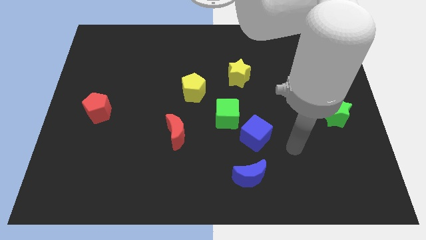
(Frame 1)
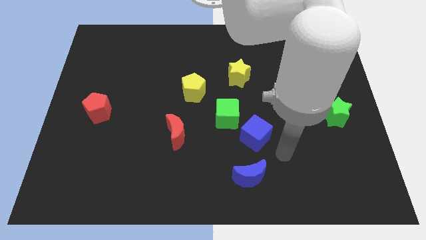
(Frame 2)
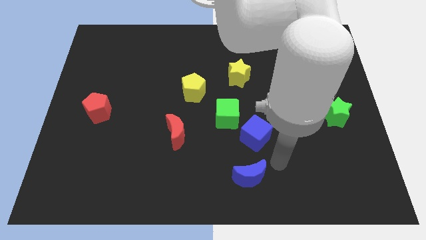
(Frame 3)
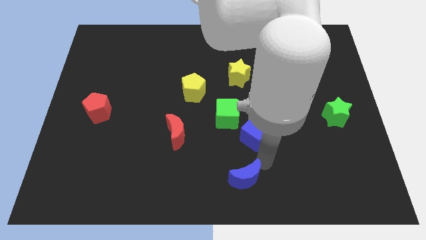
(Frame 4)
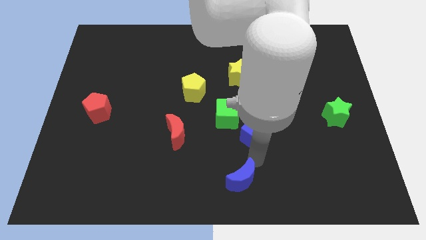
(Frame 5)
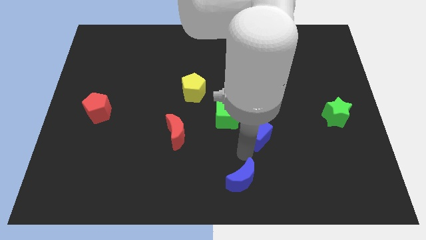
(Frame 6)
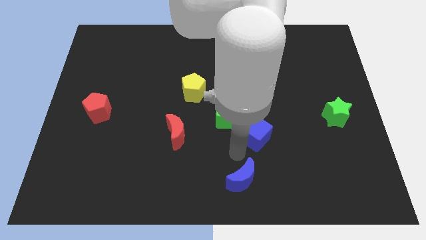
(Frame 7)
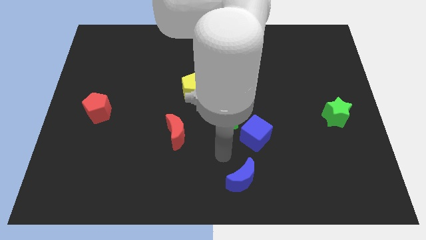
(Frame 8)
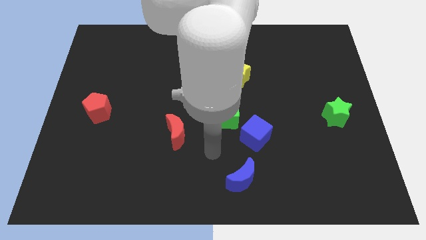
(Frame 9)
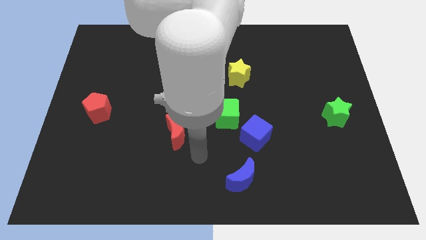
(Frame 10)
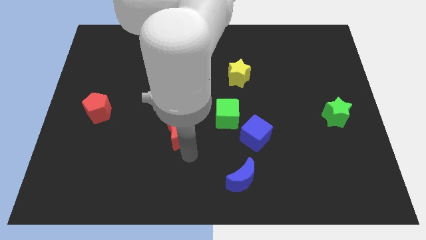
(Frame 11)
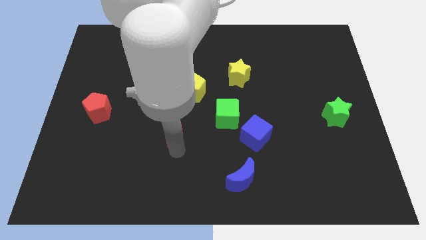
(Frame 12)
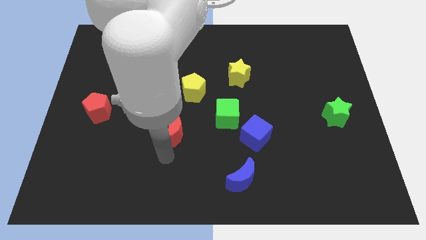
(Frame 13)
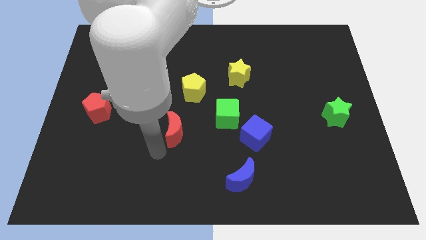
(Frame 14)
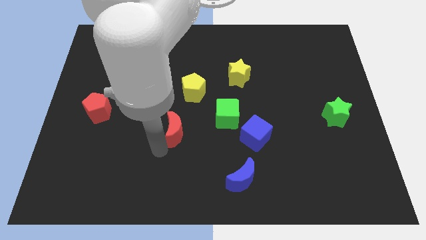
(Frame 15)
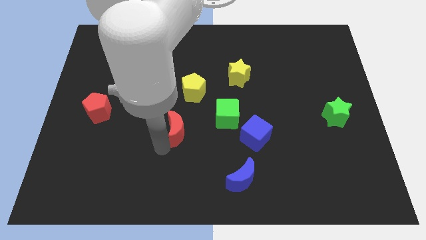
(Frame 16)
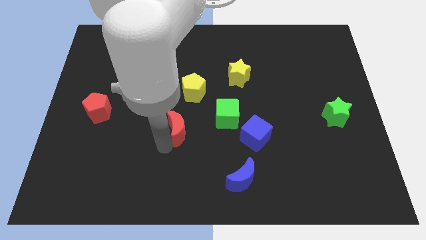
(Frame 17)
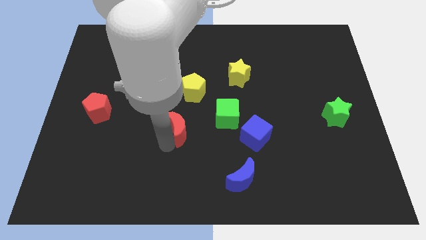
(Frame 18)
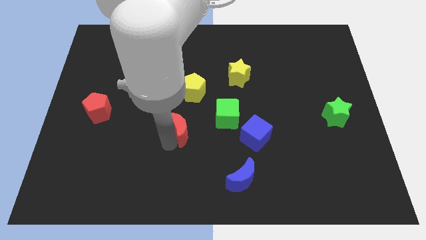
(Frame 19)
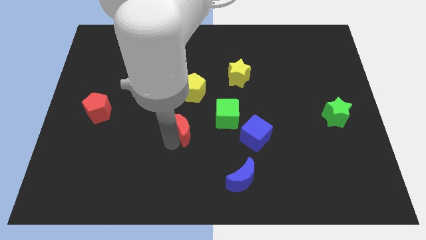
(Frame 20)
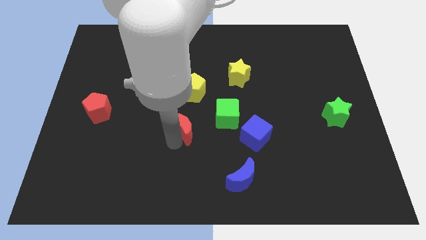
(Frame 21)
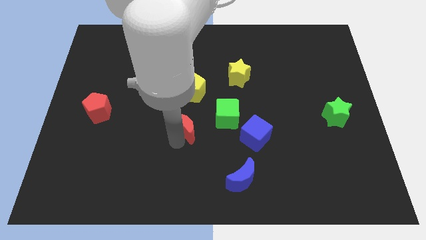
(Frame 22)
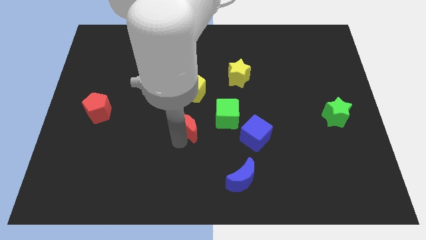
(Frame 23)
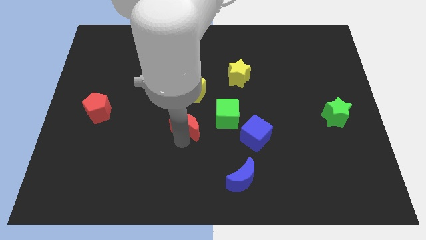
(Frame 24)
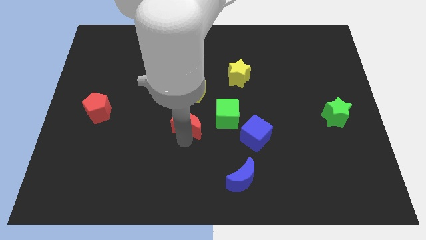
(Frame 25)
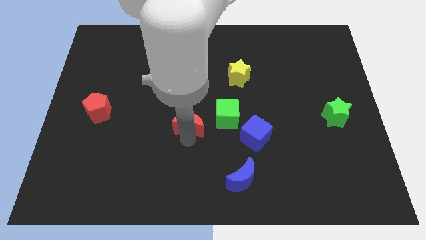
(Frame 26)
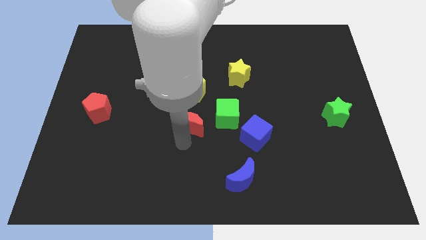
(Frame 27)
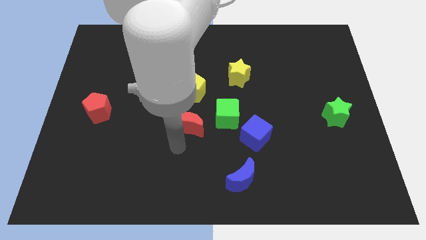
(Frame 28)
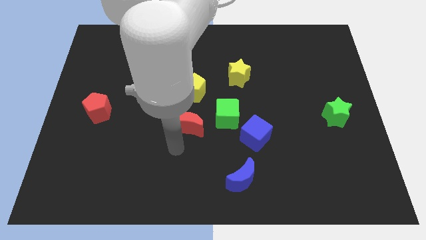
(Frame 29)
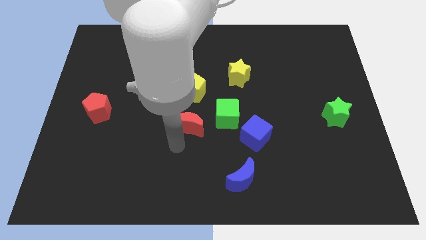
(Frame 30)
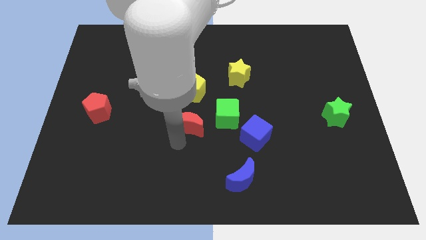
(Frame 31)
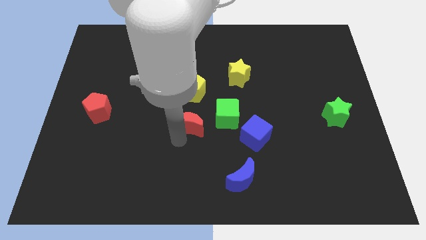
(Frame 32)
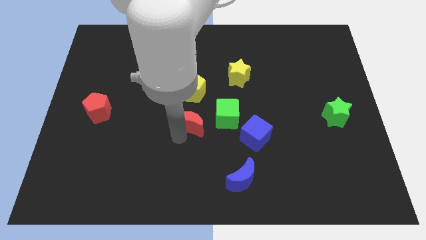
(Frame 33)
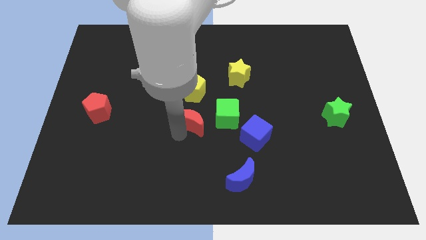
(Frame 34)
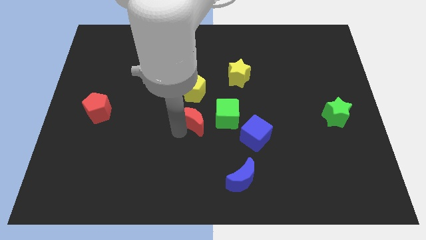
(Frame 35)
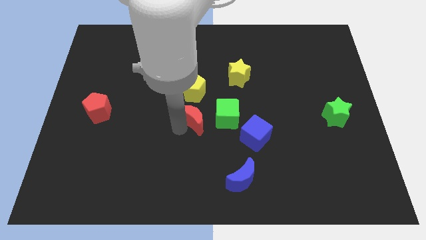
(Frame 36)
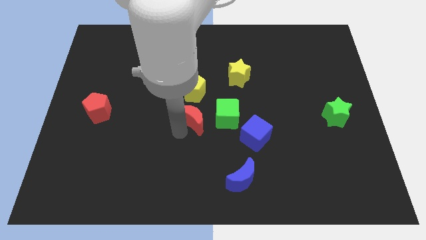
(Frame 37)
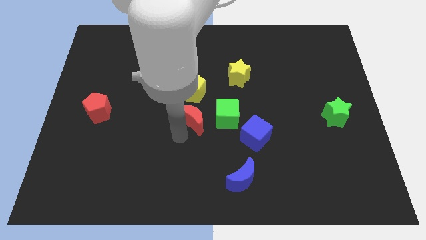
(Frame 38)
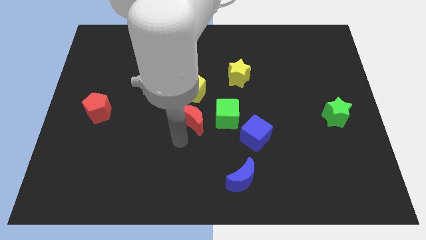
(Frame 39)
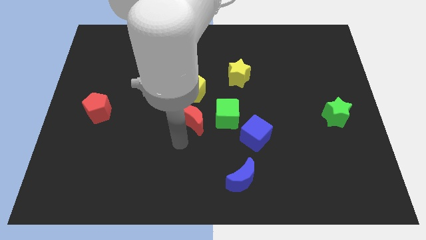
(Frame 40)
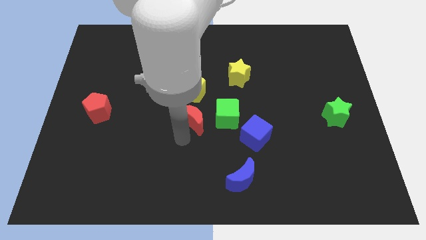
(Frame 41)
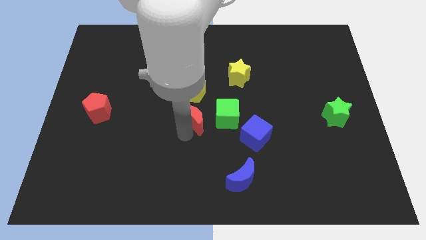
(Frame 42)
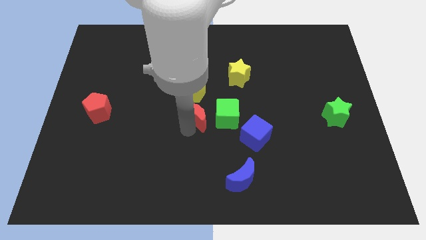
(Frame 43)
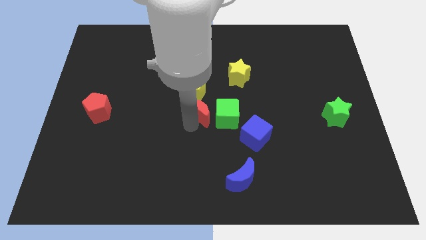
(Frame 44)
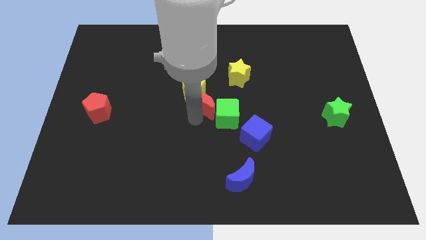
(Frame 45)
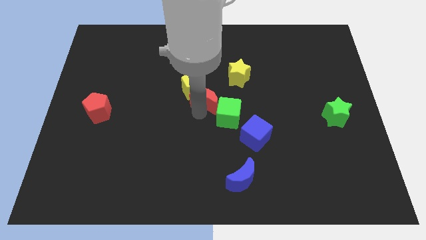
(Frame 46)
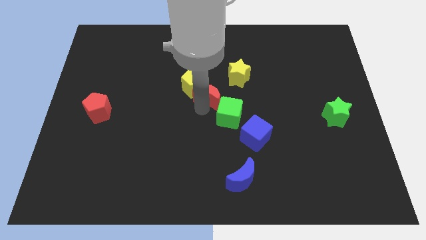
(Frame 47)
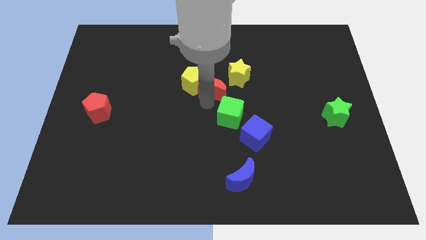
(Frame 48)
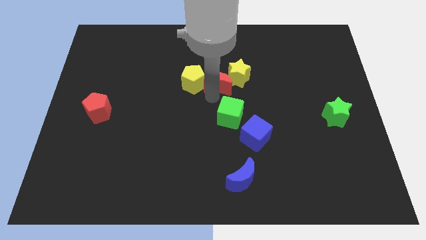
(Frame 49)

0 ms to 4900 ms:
put the red moon to the top right of the yellow pentagon

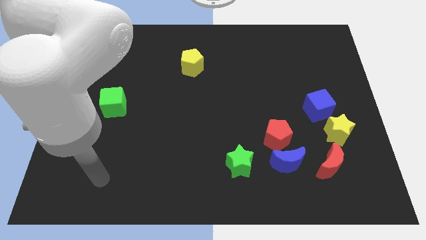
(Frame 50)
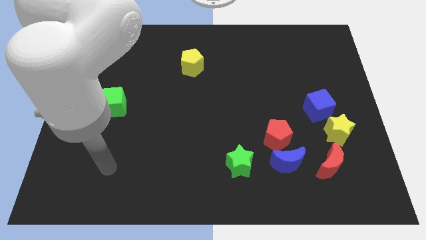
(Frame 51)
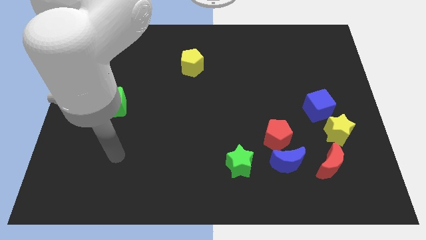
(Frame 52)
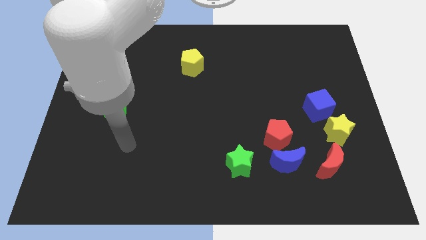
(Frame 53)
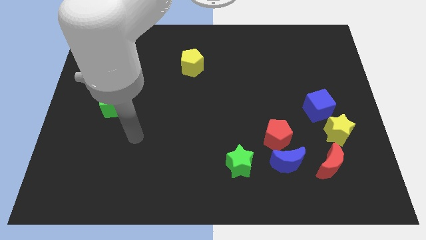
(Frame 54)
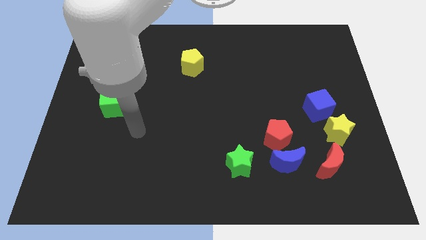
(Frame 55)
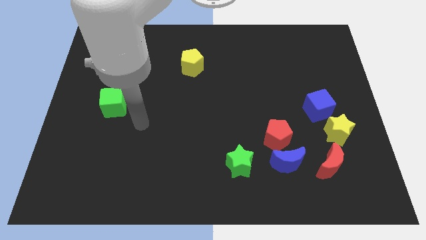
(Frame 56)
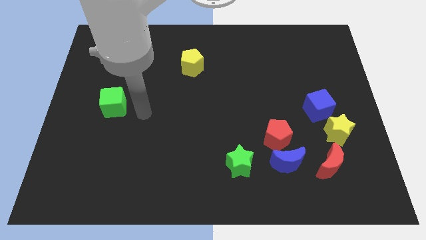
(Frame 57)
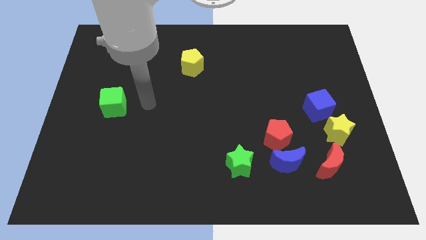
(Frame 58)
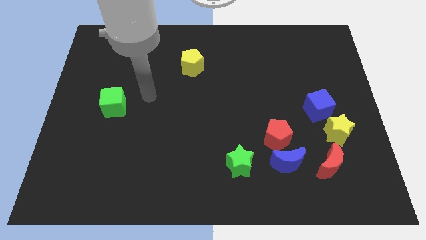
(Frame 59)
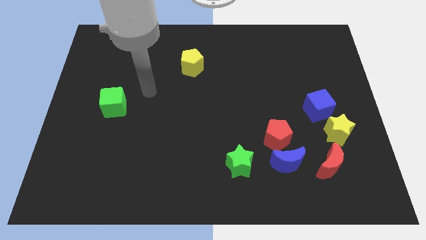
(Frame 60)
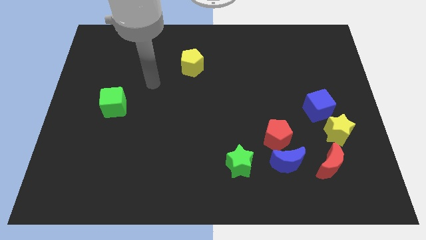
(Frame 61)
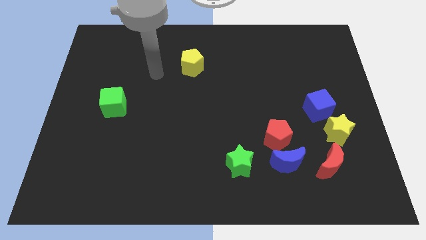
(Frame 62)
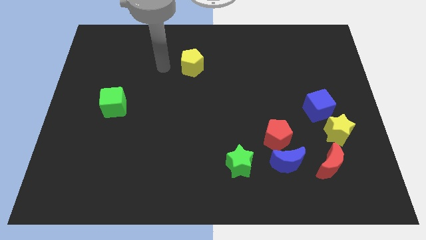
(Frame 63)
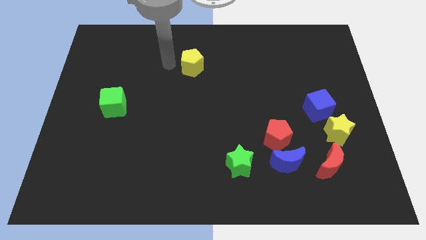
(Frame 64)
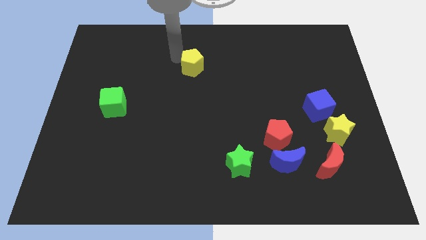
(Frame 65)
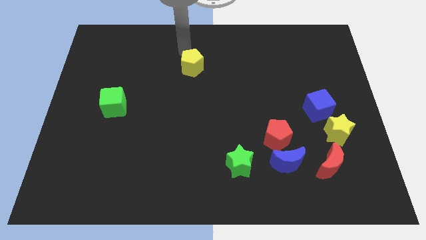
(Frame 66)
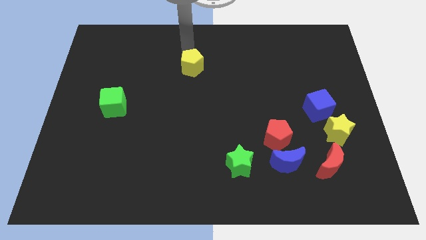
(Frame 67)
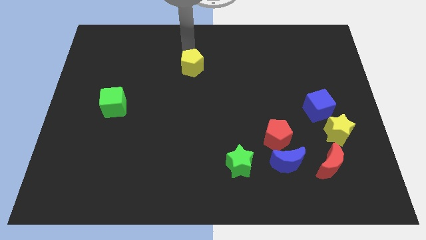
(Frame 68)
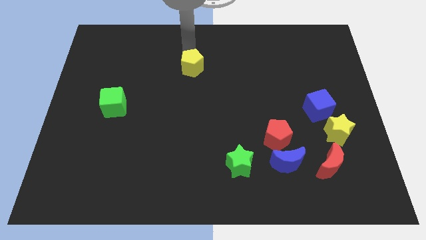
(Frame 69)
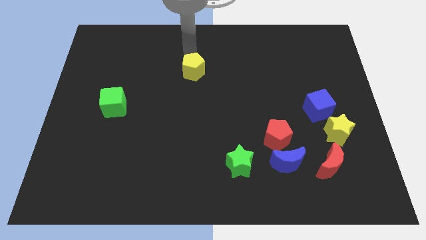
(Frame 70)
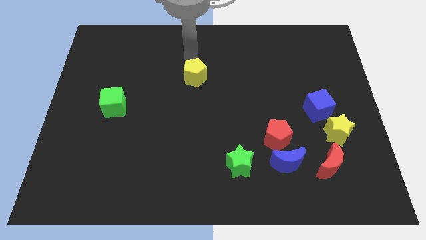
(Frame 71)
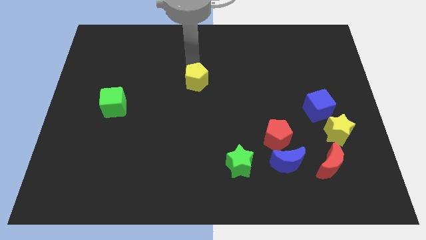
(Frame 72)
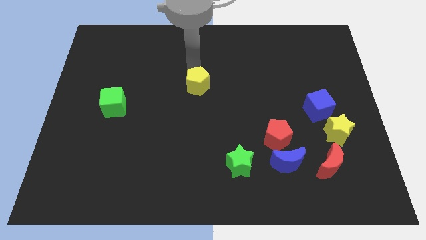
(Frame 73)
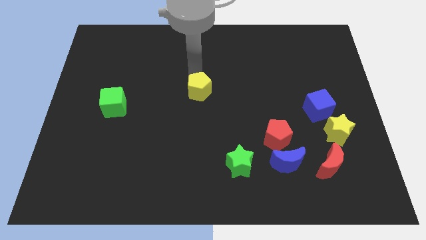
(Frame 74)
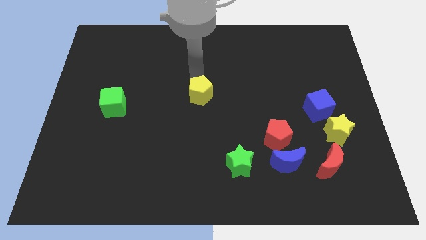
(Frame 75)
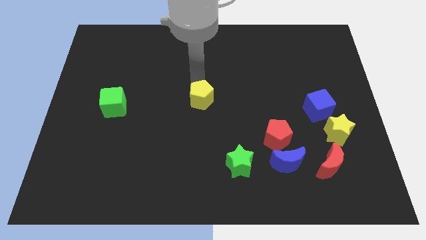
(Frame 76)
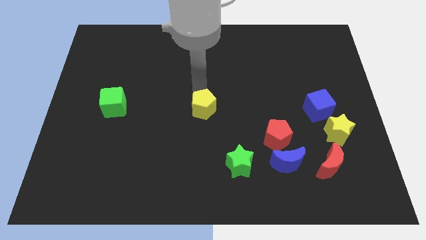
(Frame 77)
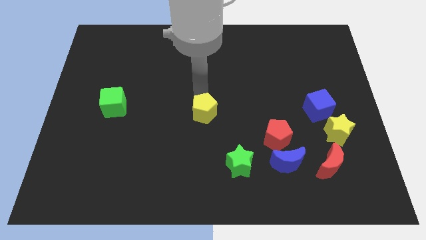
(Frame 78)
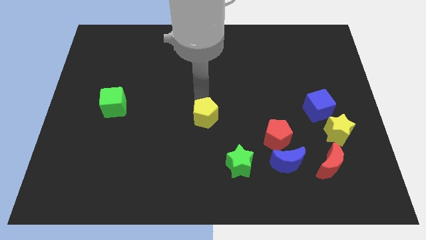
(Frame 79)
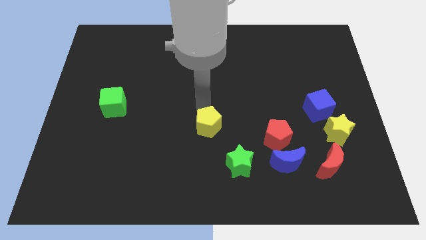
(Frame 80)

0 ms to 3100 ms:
push the yellow pentagon diagonally up and to the left of the green star

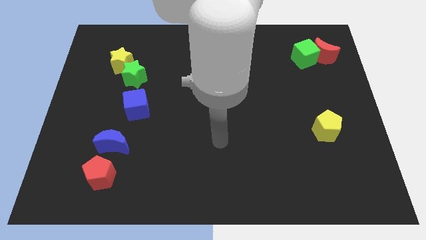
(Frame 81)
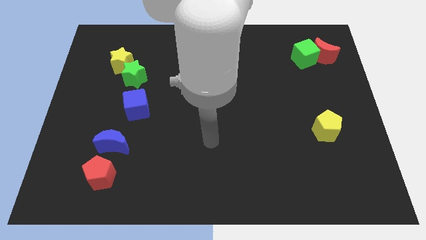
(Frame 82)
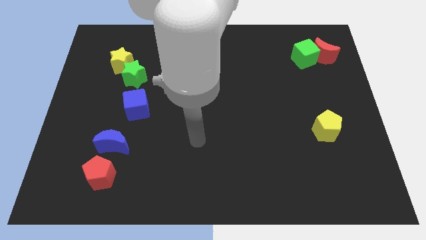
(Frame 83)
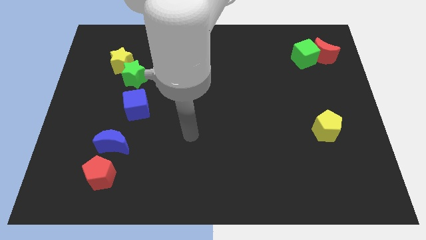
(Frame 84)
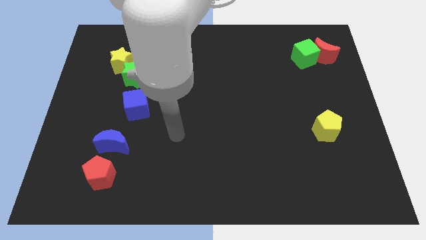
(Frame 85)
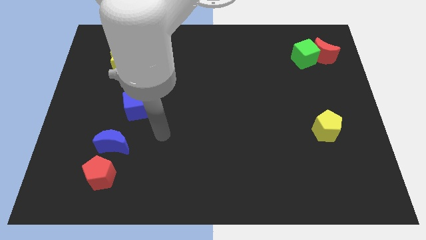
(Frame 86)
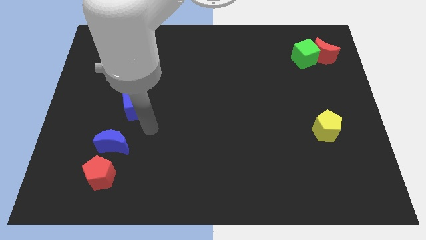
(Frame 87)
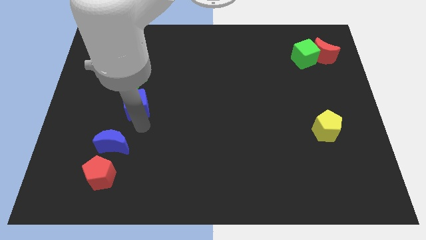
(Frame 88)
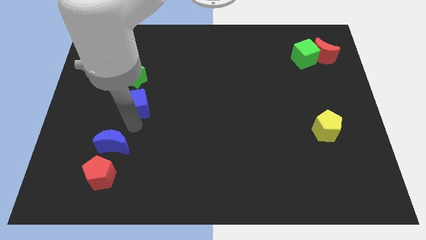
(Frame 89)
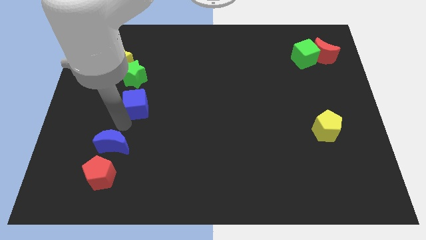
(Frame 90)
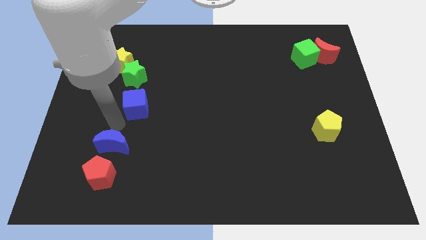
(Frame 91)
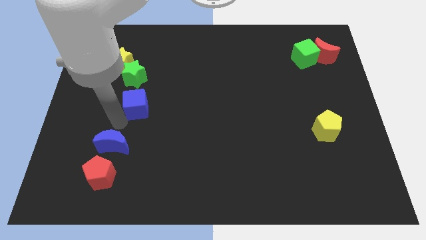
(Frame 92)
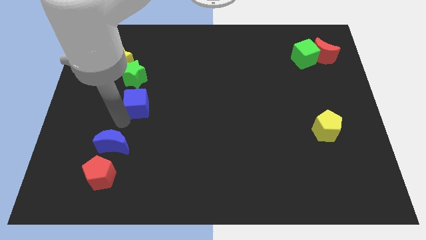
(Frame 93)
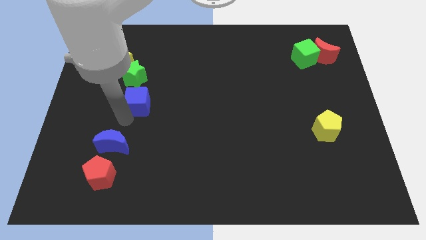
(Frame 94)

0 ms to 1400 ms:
push the blue cube to the bottom right side of the green star
